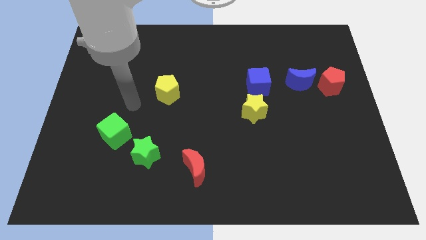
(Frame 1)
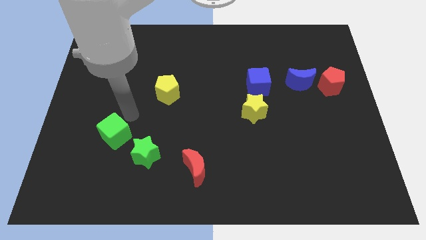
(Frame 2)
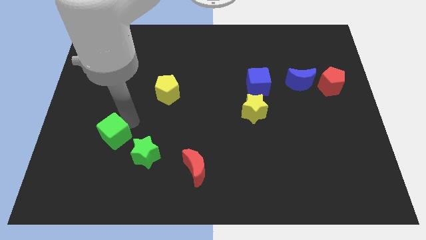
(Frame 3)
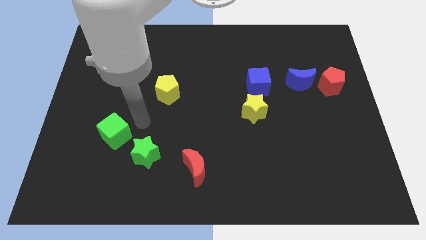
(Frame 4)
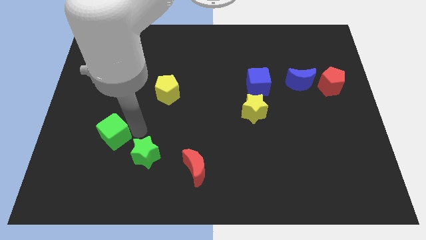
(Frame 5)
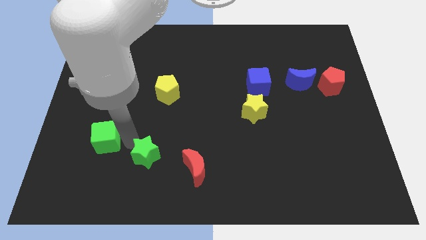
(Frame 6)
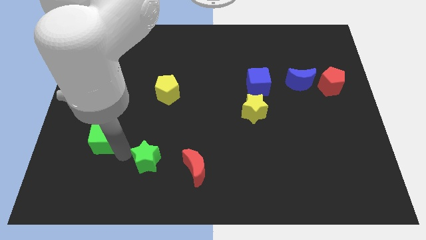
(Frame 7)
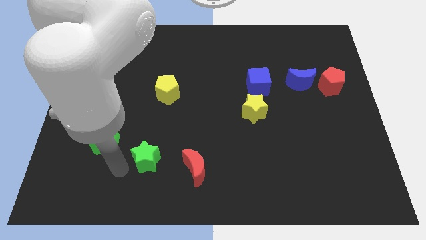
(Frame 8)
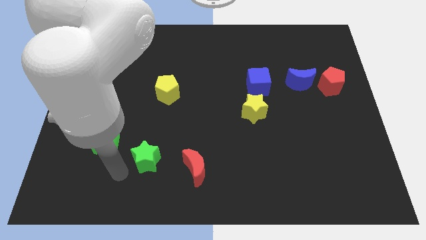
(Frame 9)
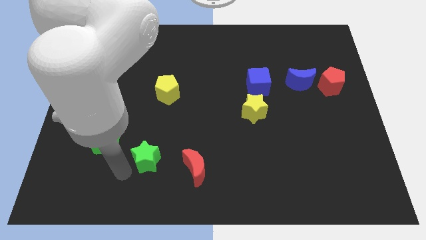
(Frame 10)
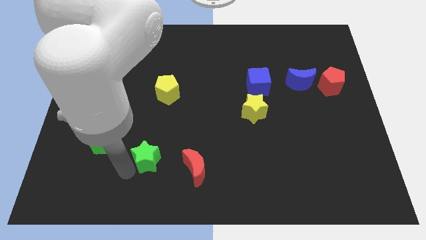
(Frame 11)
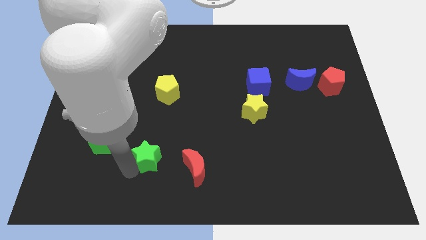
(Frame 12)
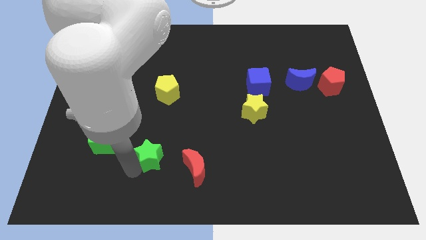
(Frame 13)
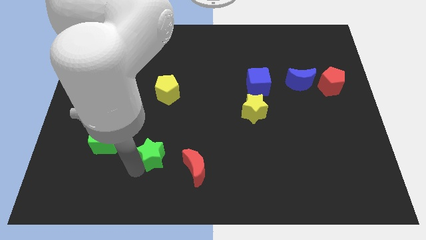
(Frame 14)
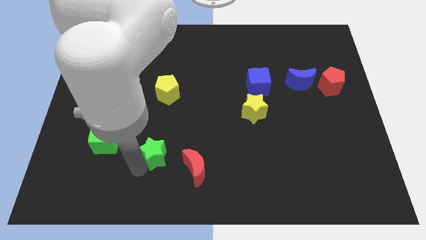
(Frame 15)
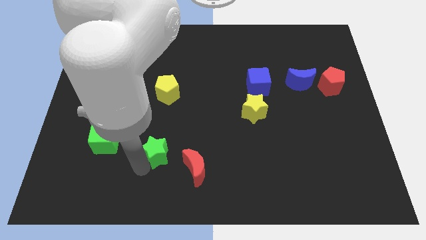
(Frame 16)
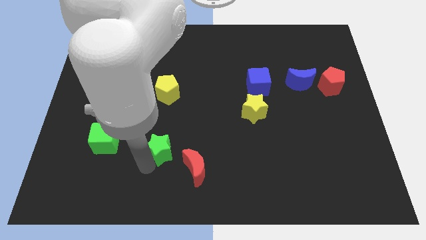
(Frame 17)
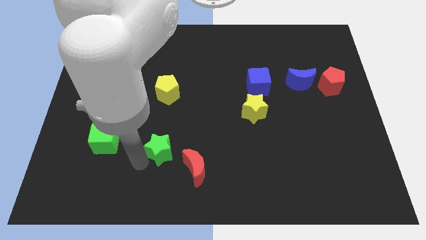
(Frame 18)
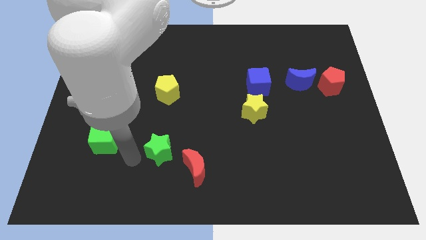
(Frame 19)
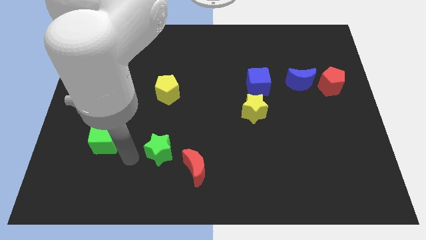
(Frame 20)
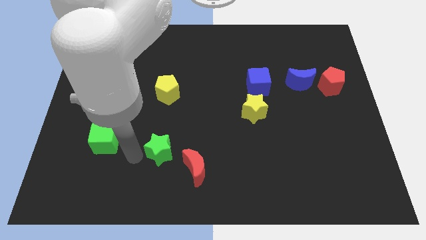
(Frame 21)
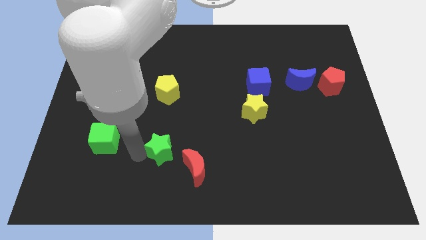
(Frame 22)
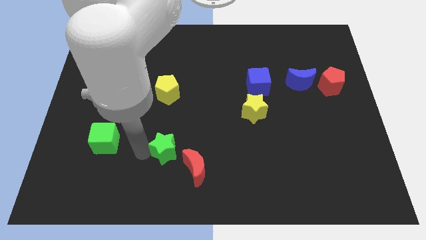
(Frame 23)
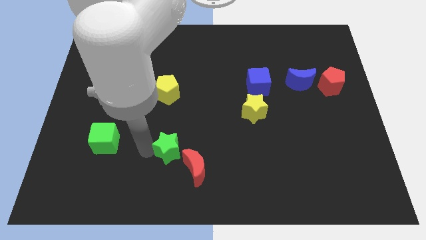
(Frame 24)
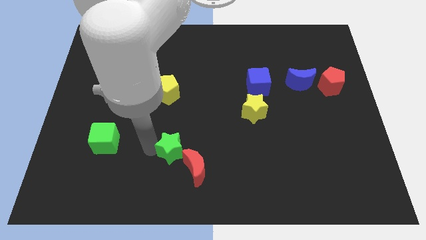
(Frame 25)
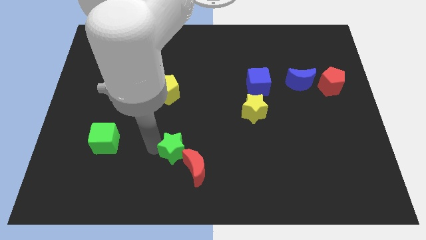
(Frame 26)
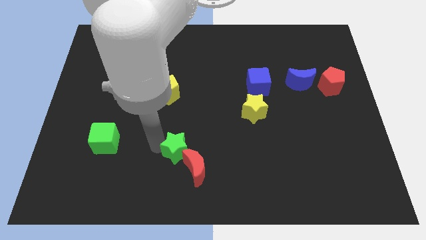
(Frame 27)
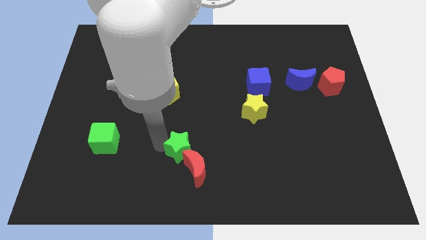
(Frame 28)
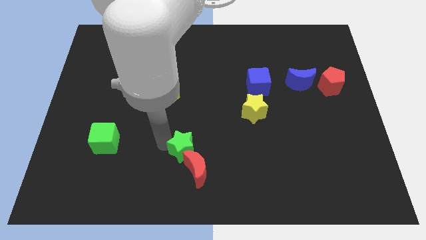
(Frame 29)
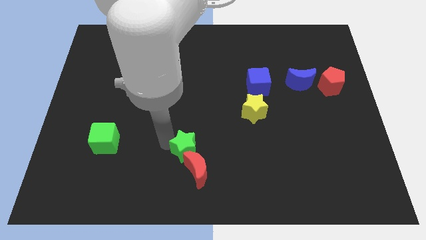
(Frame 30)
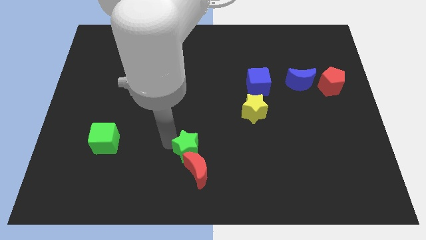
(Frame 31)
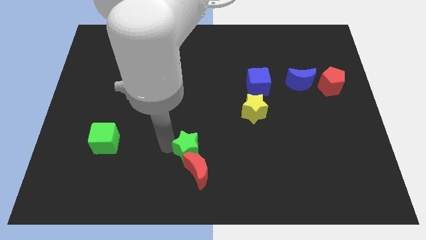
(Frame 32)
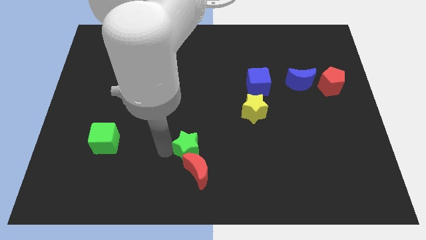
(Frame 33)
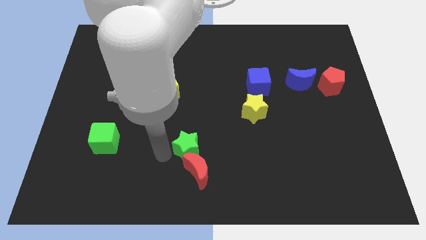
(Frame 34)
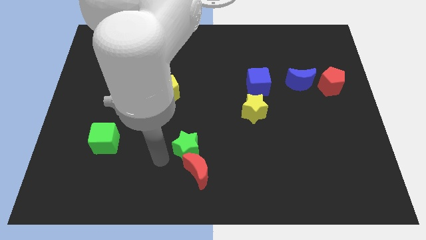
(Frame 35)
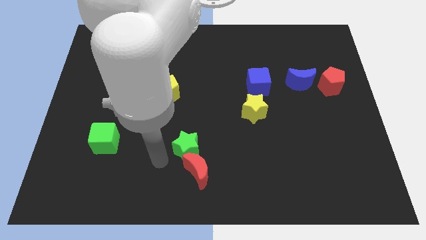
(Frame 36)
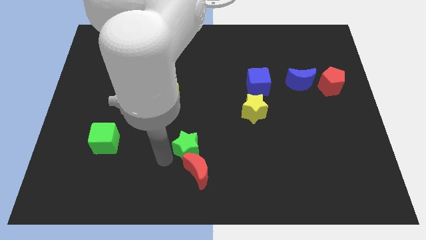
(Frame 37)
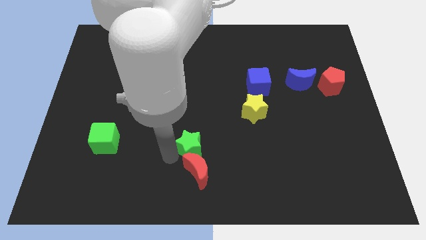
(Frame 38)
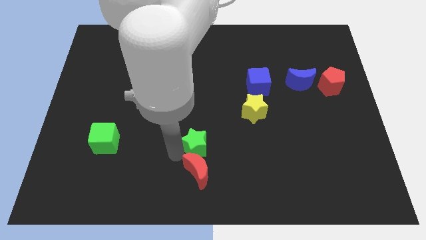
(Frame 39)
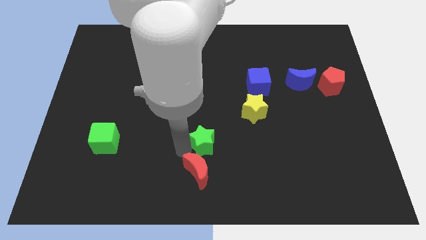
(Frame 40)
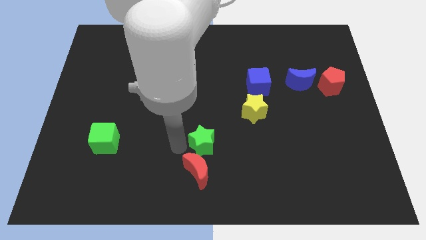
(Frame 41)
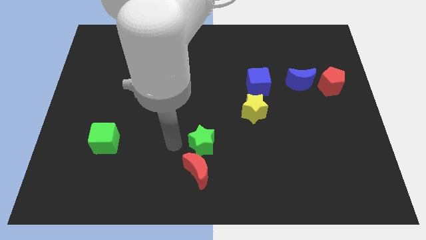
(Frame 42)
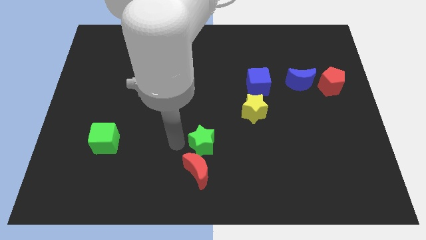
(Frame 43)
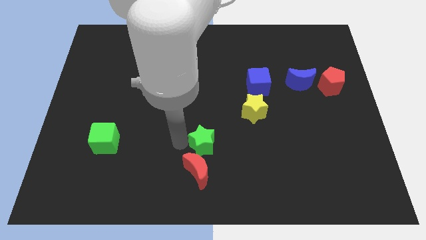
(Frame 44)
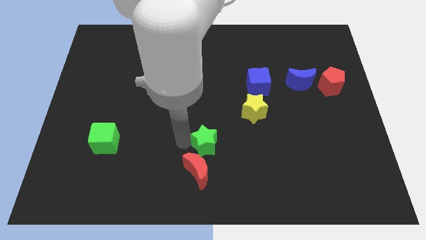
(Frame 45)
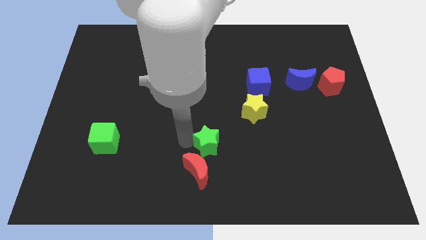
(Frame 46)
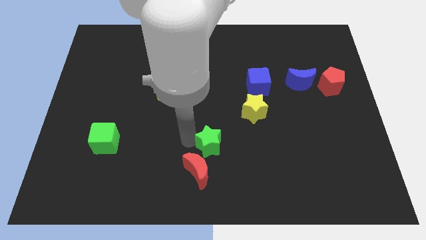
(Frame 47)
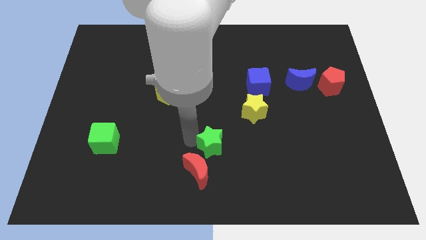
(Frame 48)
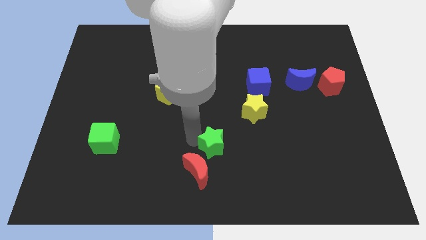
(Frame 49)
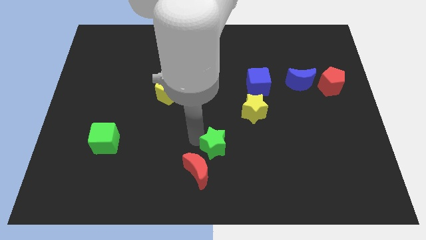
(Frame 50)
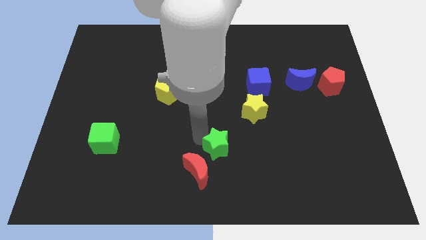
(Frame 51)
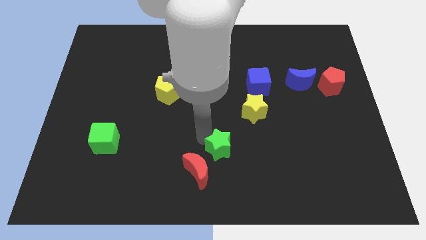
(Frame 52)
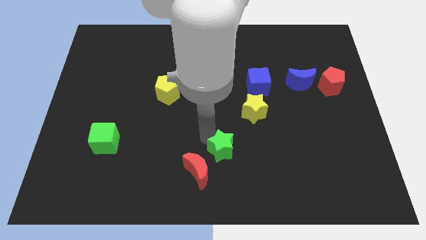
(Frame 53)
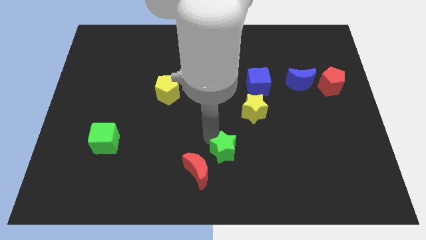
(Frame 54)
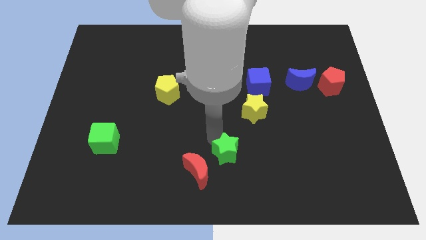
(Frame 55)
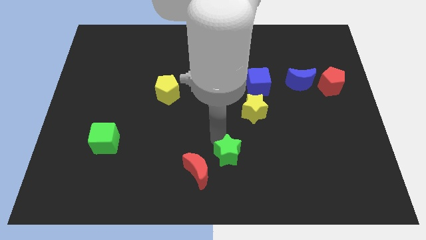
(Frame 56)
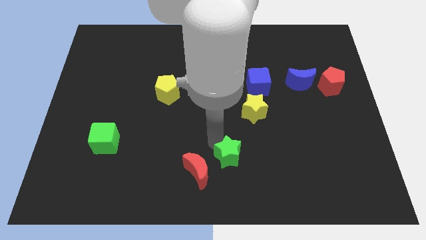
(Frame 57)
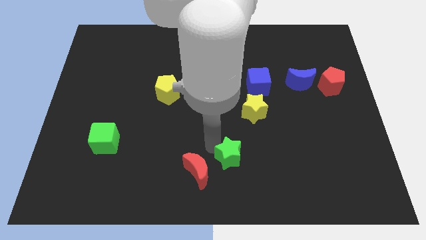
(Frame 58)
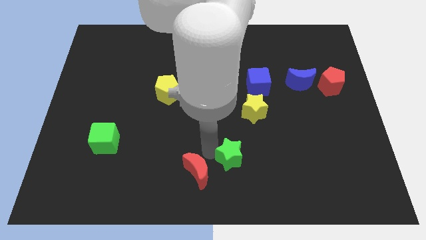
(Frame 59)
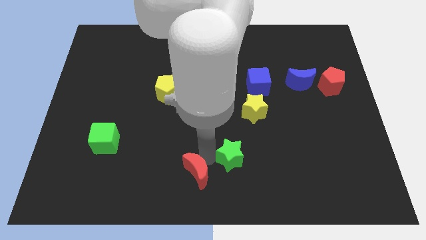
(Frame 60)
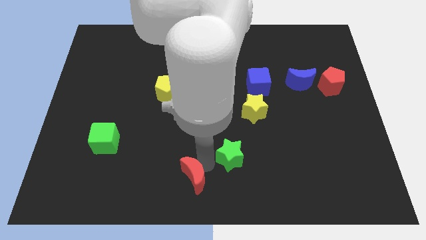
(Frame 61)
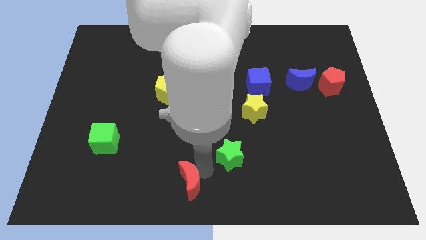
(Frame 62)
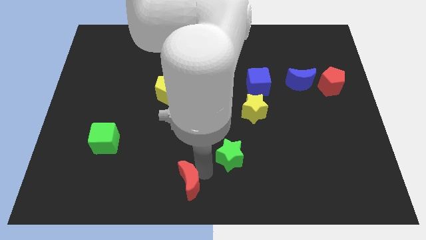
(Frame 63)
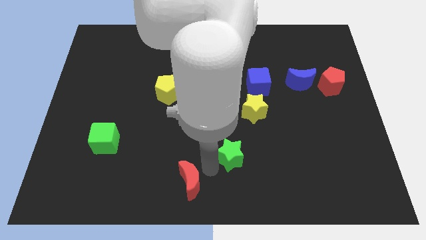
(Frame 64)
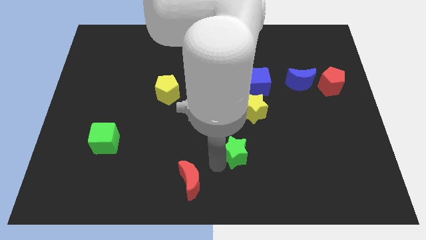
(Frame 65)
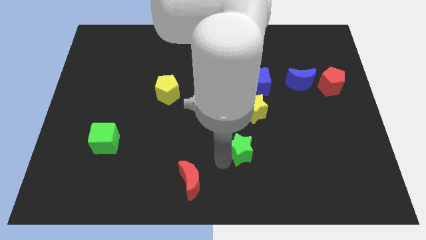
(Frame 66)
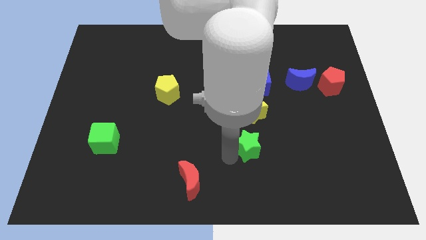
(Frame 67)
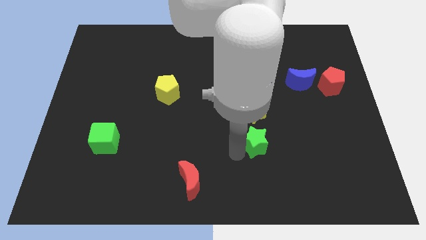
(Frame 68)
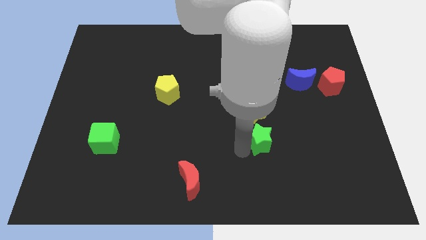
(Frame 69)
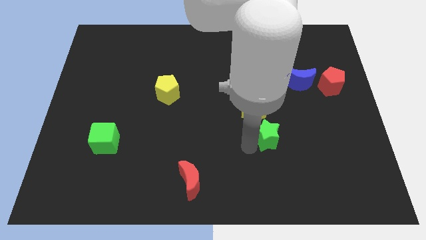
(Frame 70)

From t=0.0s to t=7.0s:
move the green star to the bottom right of the yellow star
